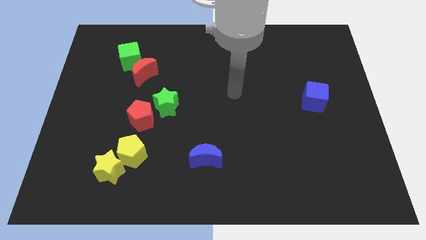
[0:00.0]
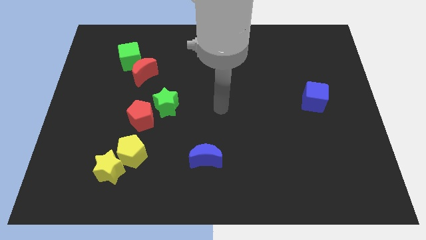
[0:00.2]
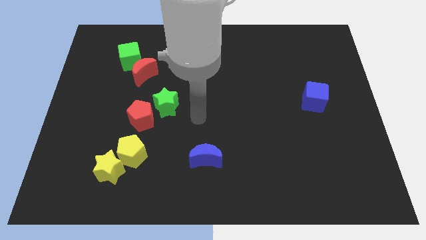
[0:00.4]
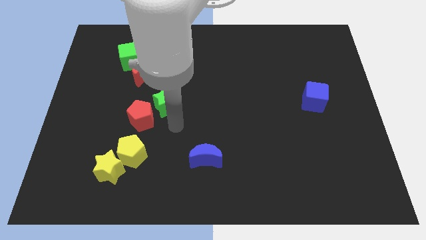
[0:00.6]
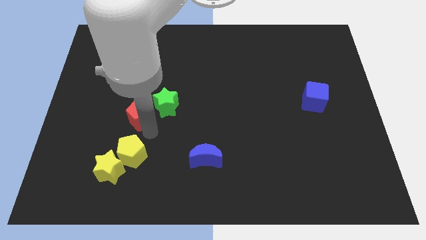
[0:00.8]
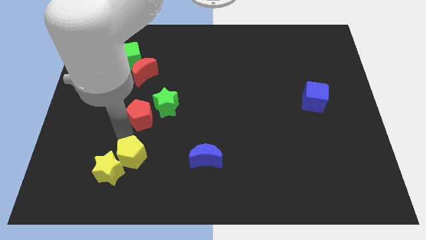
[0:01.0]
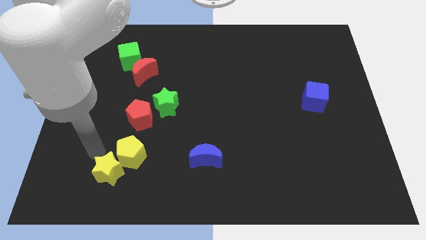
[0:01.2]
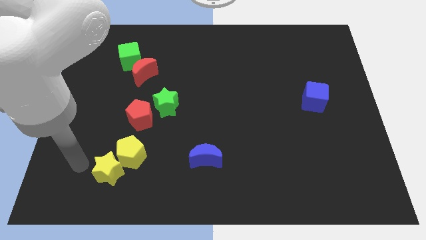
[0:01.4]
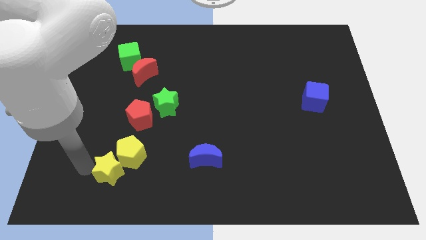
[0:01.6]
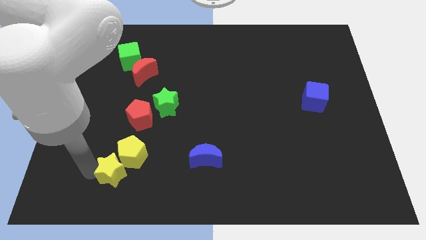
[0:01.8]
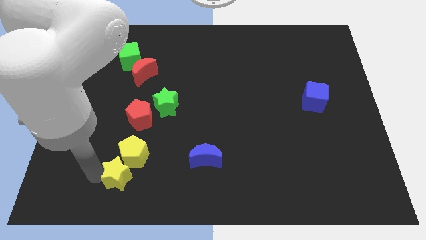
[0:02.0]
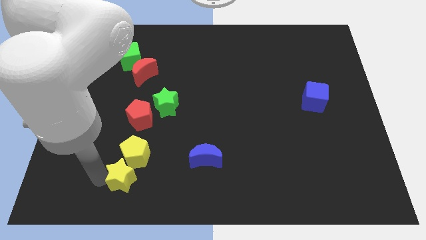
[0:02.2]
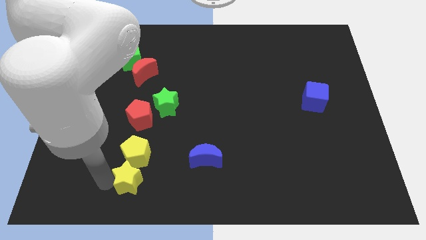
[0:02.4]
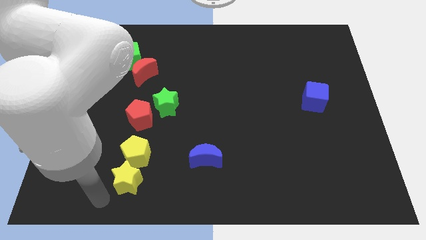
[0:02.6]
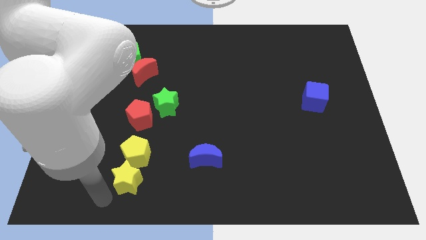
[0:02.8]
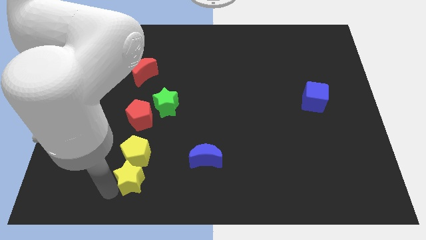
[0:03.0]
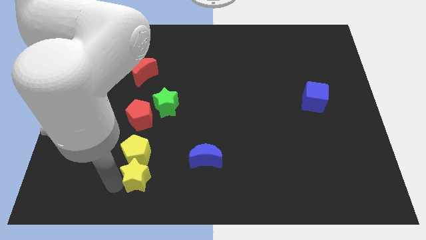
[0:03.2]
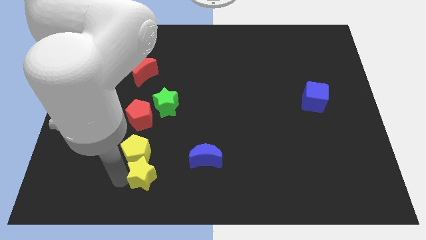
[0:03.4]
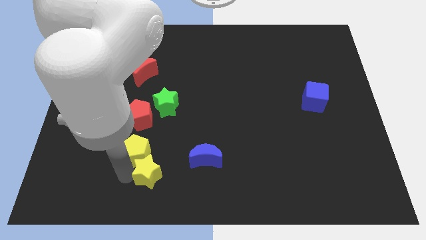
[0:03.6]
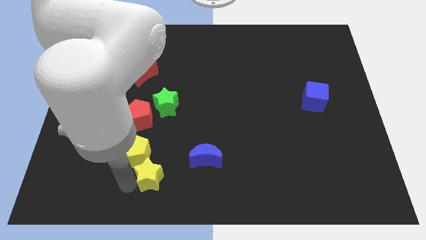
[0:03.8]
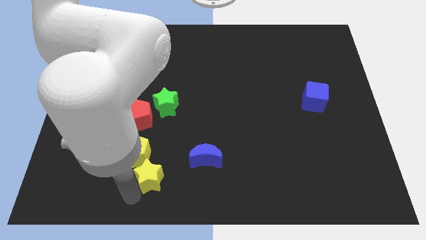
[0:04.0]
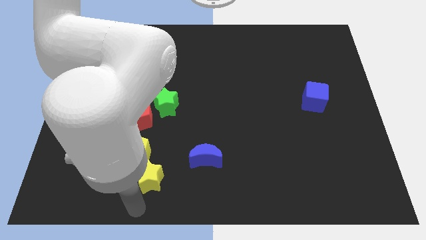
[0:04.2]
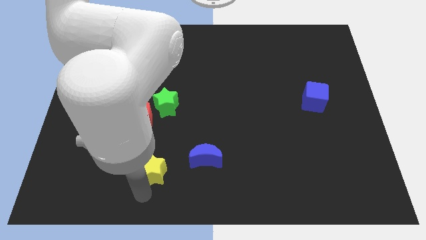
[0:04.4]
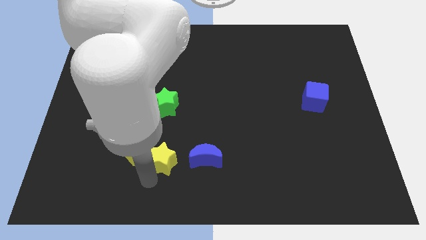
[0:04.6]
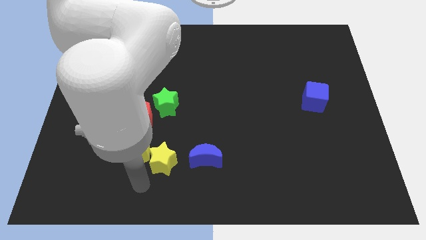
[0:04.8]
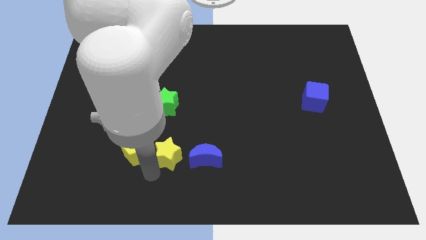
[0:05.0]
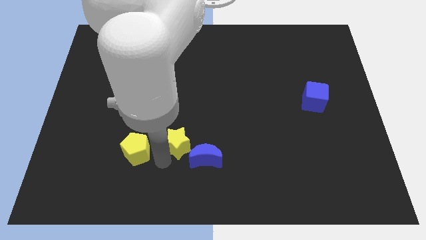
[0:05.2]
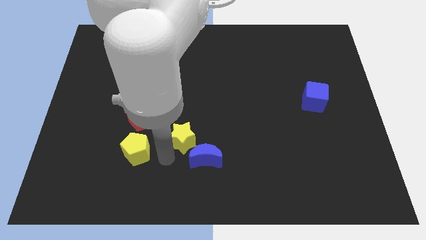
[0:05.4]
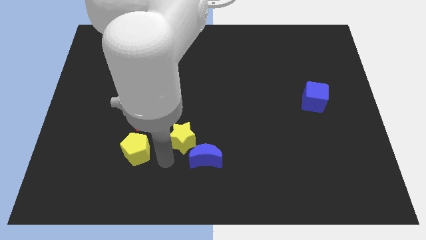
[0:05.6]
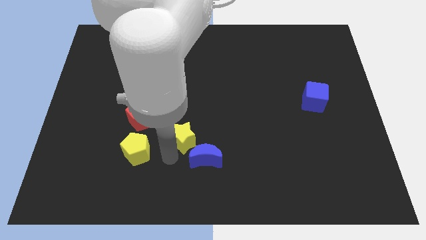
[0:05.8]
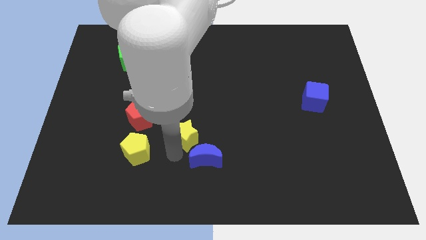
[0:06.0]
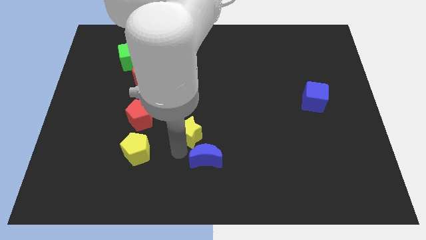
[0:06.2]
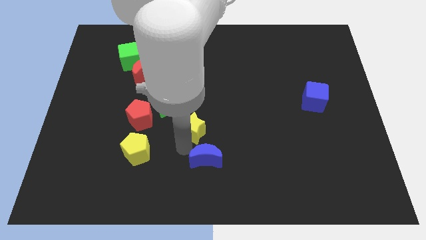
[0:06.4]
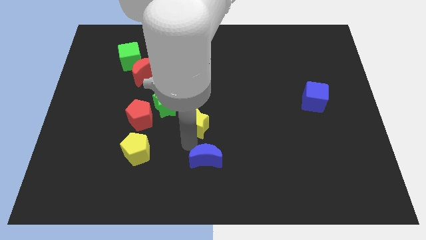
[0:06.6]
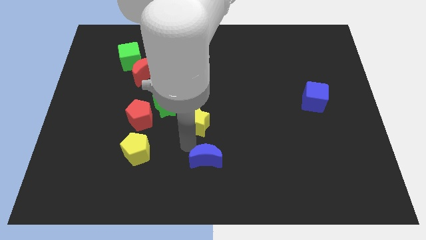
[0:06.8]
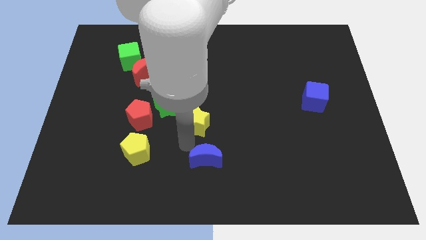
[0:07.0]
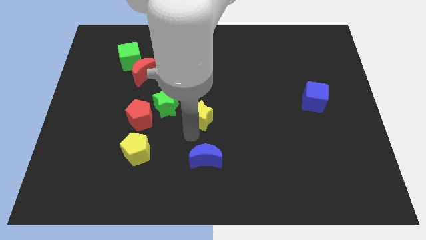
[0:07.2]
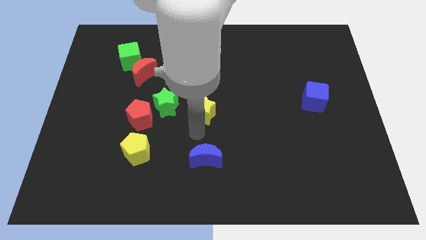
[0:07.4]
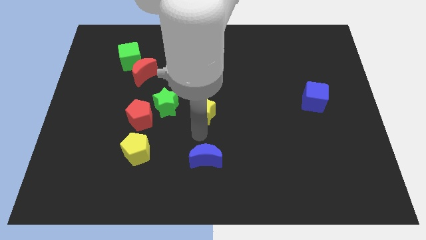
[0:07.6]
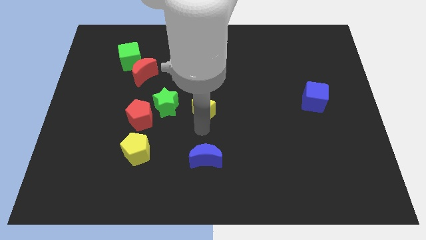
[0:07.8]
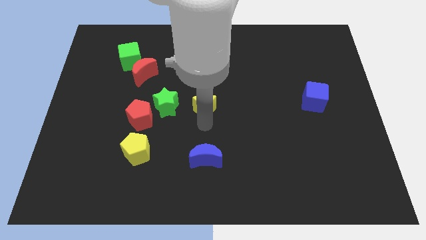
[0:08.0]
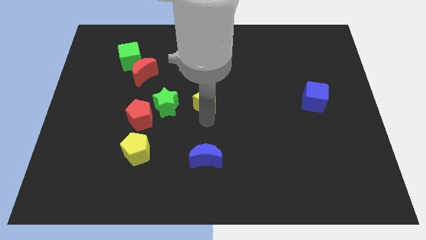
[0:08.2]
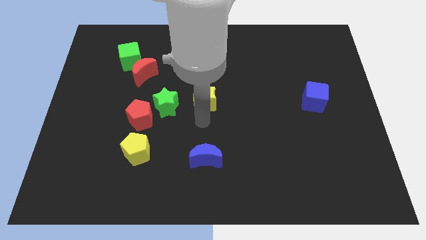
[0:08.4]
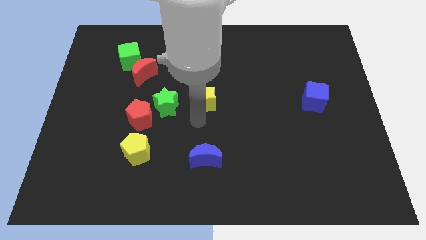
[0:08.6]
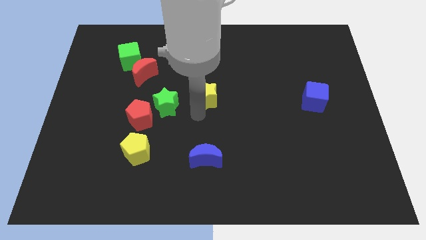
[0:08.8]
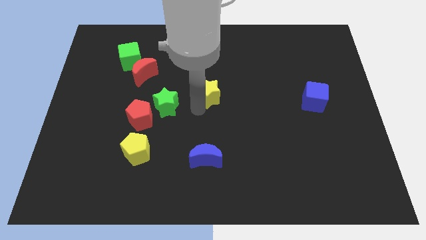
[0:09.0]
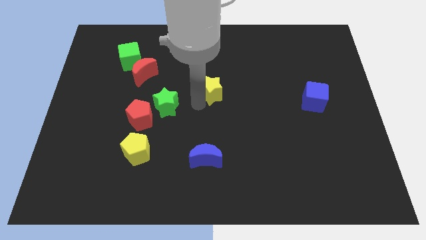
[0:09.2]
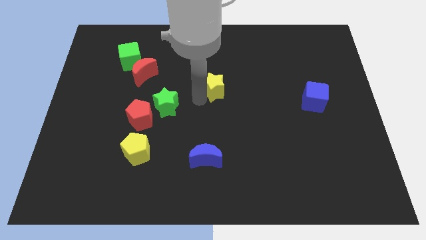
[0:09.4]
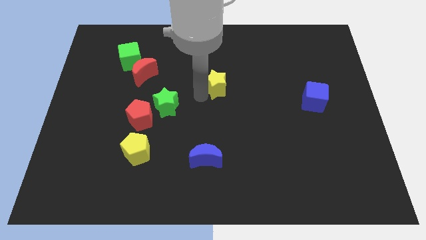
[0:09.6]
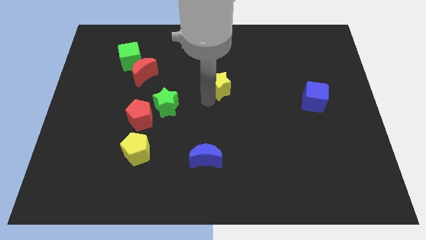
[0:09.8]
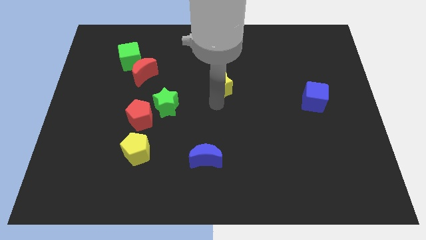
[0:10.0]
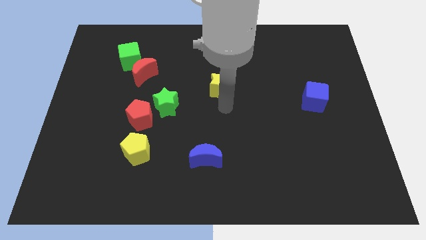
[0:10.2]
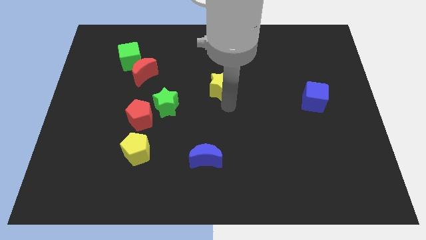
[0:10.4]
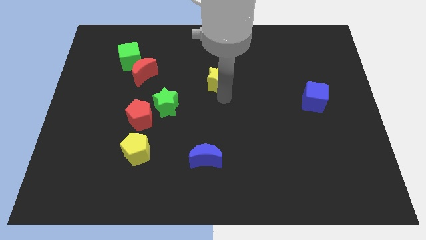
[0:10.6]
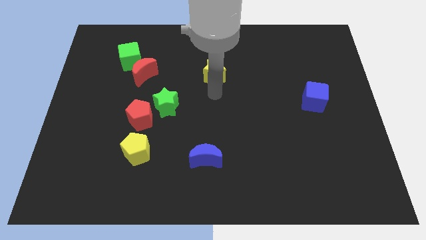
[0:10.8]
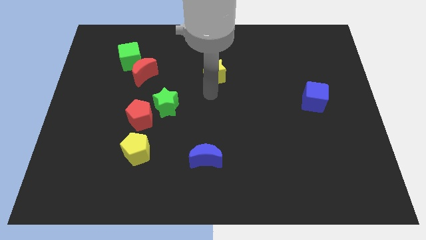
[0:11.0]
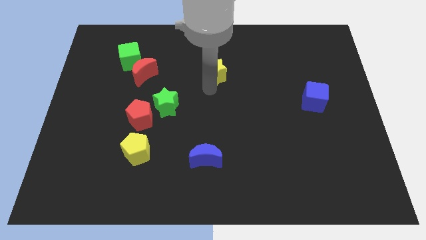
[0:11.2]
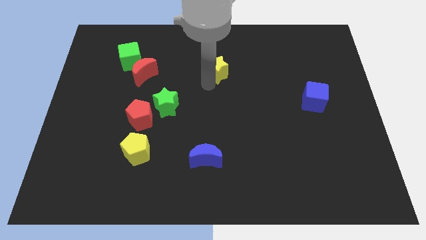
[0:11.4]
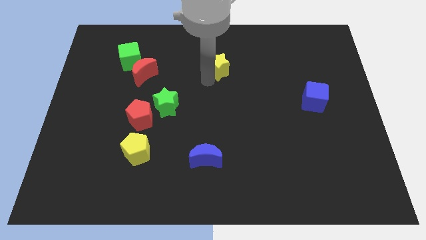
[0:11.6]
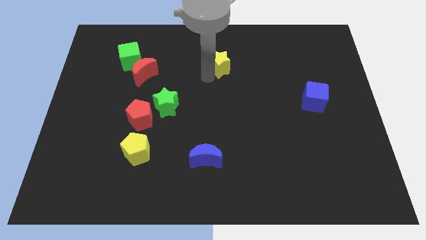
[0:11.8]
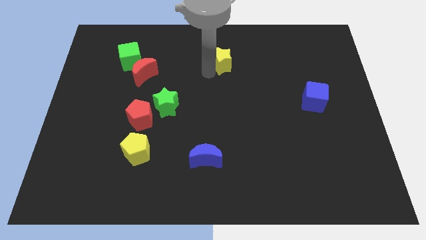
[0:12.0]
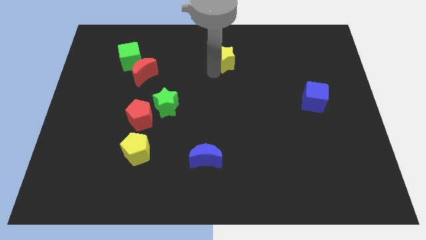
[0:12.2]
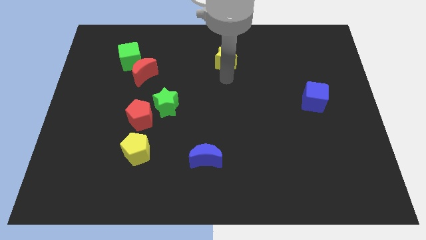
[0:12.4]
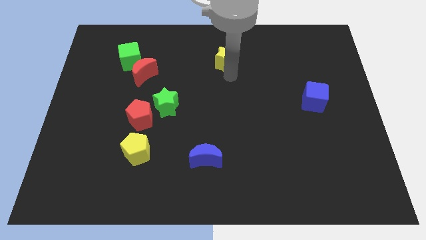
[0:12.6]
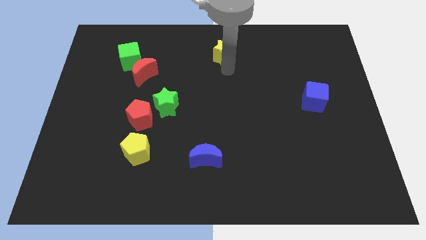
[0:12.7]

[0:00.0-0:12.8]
slide the yellow star to the top
